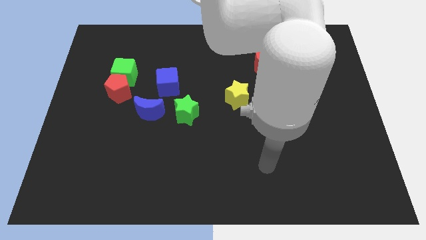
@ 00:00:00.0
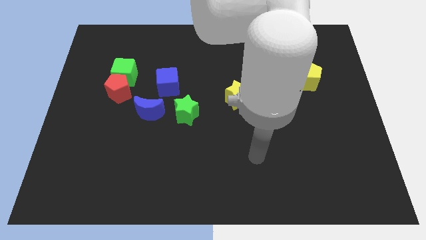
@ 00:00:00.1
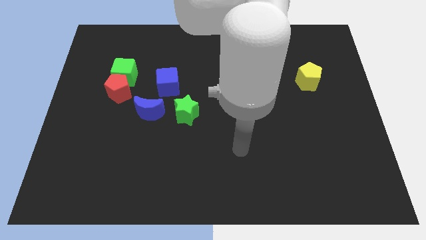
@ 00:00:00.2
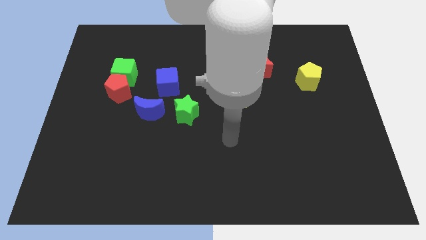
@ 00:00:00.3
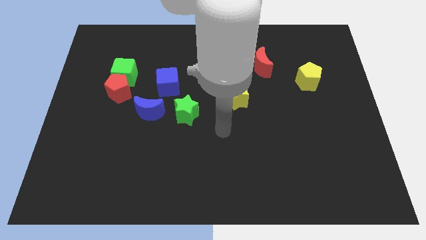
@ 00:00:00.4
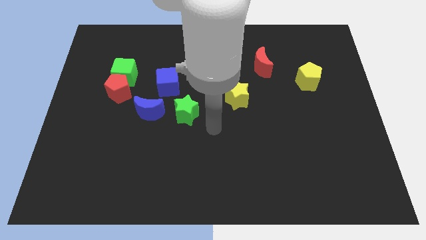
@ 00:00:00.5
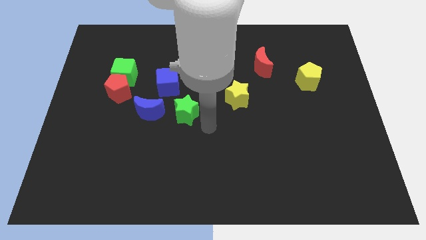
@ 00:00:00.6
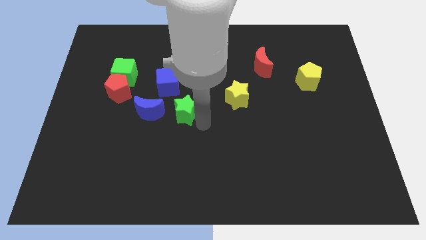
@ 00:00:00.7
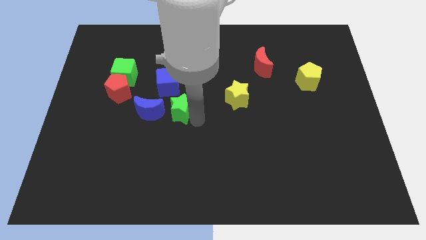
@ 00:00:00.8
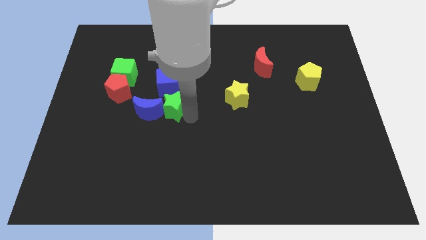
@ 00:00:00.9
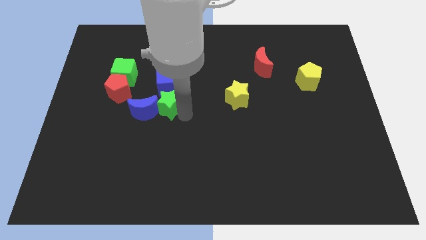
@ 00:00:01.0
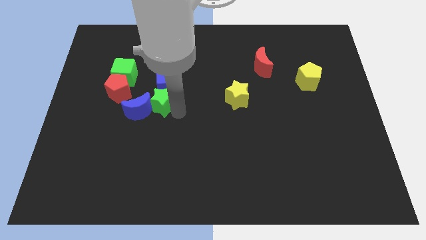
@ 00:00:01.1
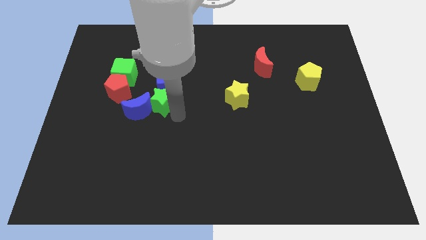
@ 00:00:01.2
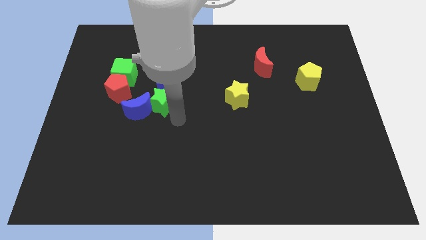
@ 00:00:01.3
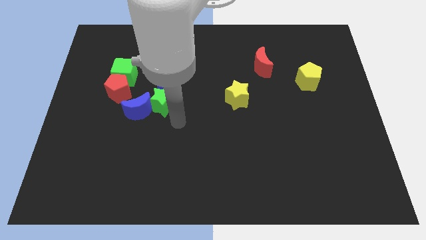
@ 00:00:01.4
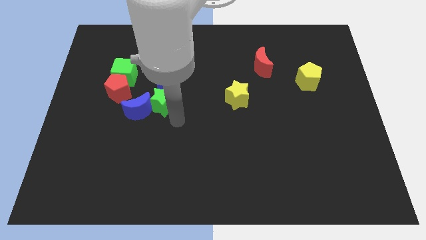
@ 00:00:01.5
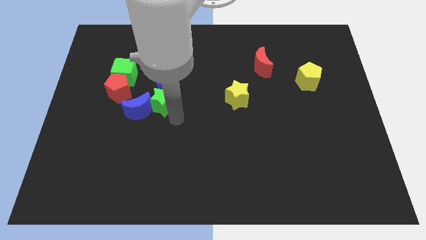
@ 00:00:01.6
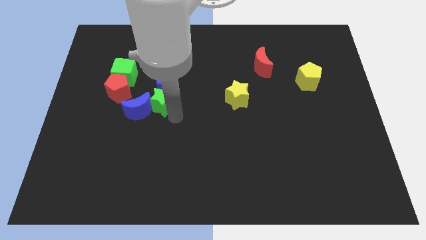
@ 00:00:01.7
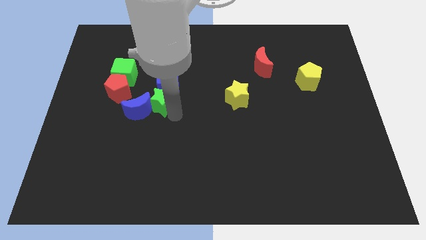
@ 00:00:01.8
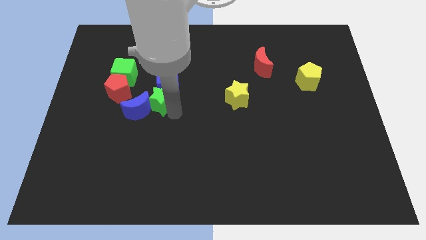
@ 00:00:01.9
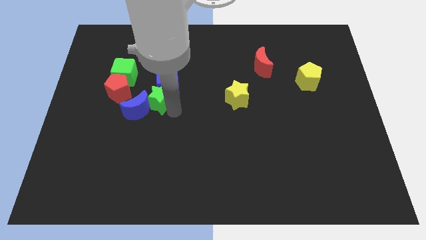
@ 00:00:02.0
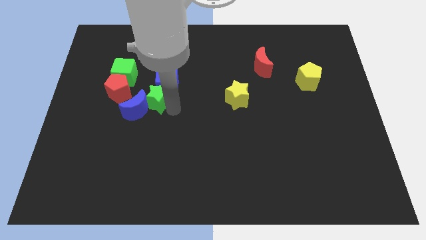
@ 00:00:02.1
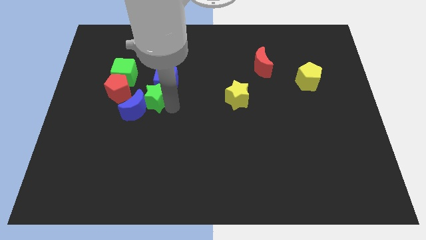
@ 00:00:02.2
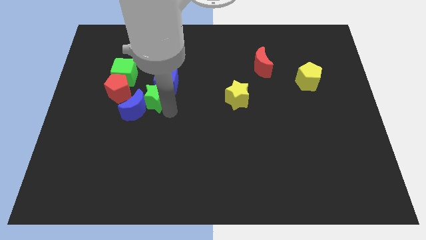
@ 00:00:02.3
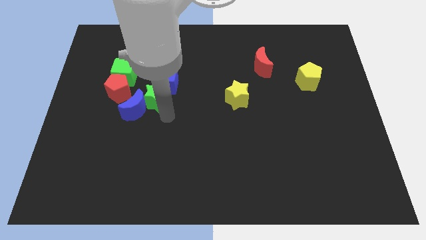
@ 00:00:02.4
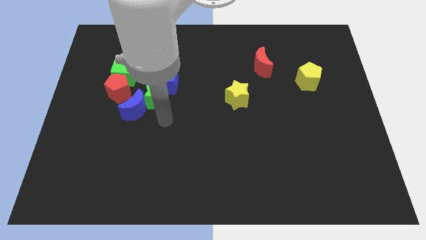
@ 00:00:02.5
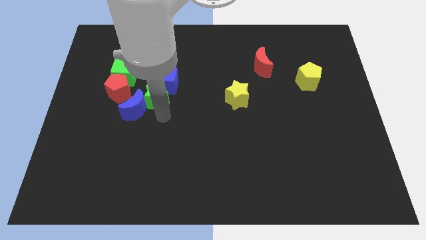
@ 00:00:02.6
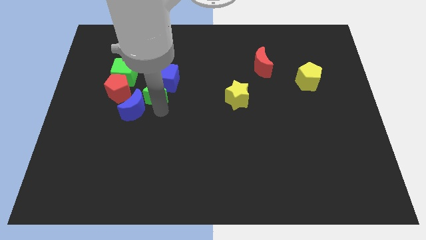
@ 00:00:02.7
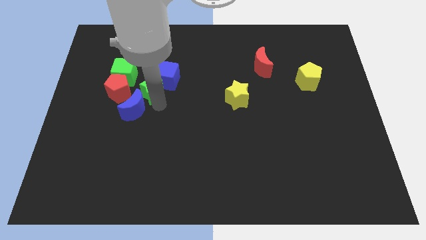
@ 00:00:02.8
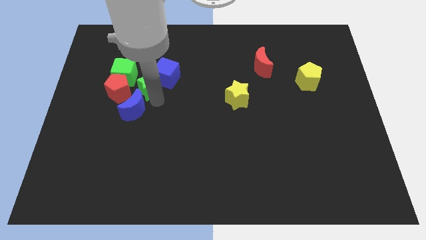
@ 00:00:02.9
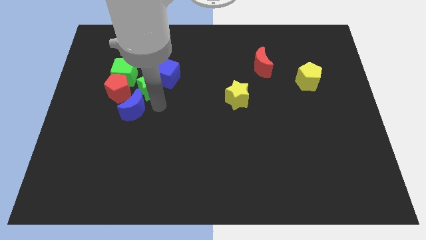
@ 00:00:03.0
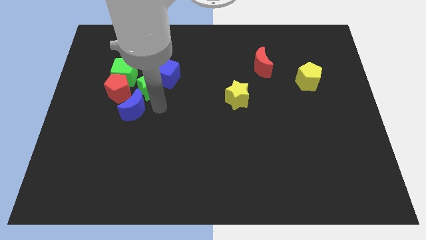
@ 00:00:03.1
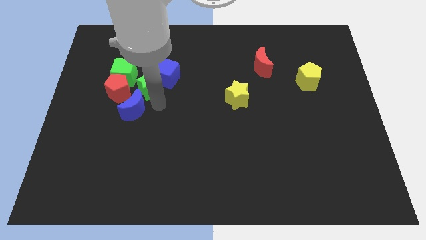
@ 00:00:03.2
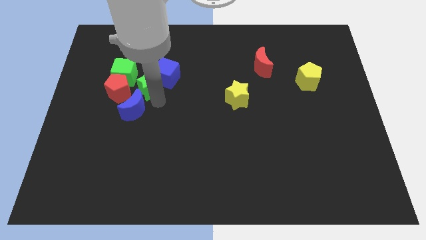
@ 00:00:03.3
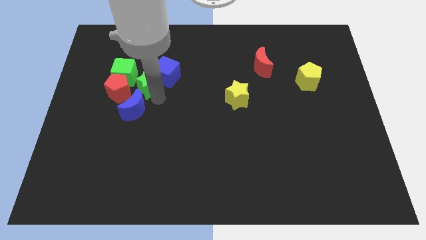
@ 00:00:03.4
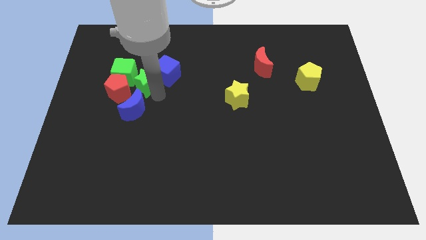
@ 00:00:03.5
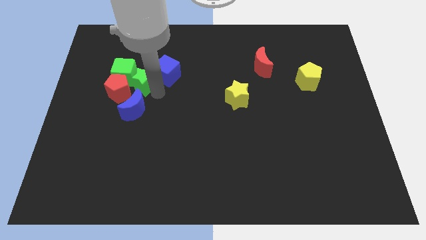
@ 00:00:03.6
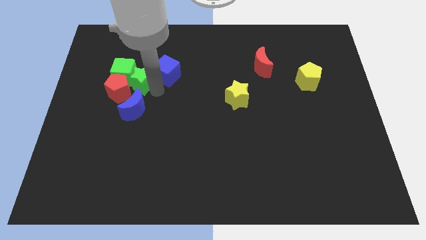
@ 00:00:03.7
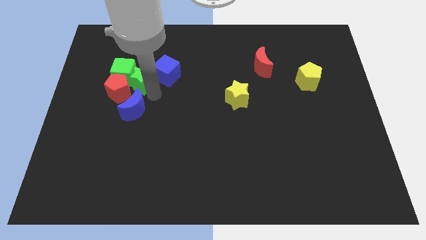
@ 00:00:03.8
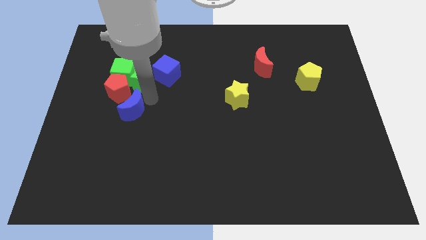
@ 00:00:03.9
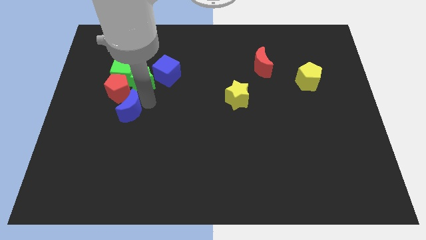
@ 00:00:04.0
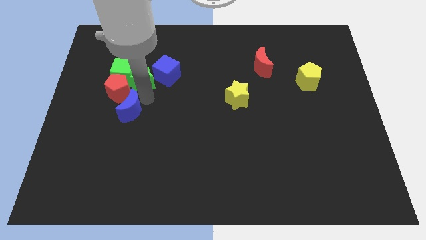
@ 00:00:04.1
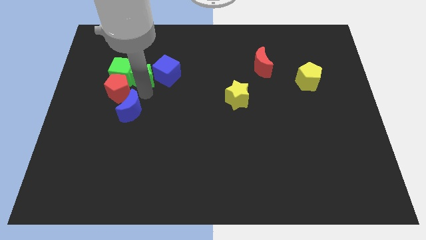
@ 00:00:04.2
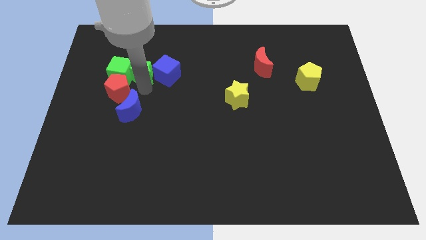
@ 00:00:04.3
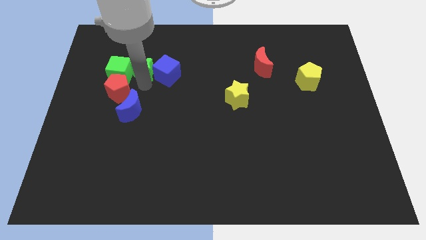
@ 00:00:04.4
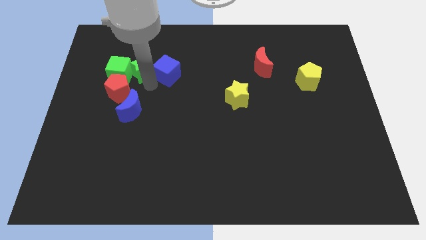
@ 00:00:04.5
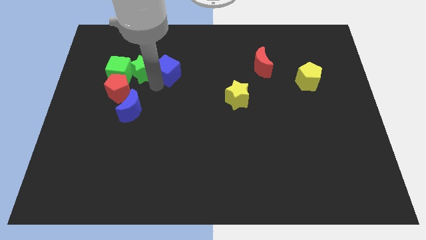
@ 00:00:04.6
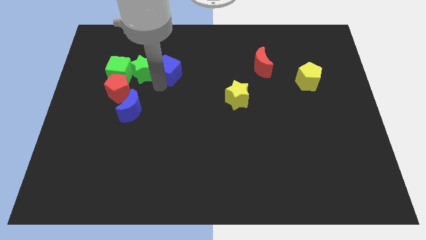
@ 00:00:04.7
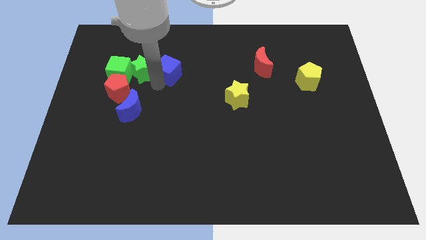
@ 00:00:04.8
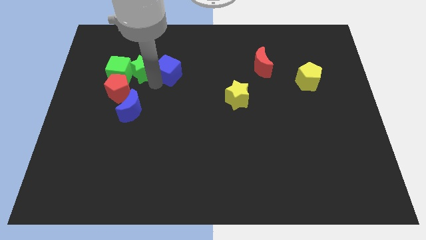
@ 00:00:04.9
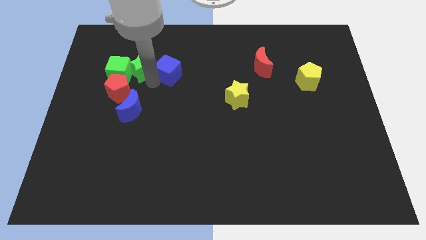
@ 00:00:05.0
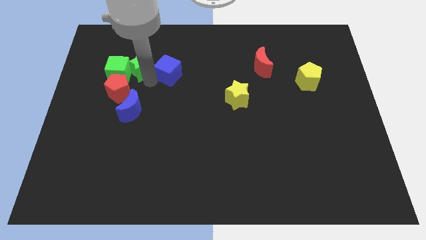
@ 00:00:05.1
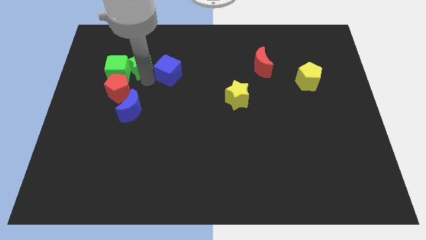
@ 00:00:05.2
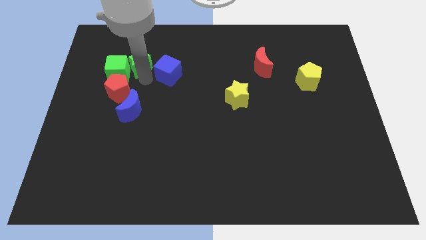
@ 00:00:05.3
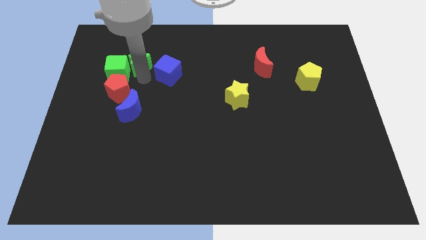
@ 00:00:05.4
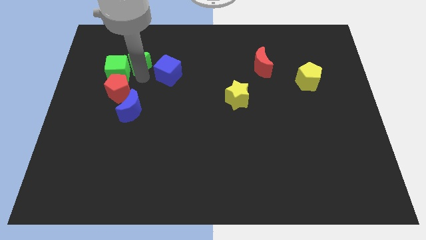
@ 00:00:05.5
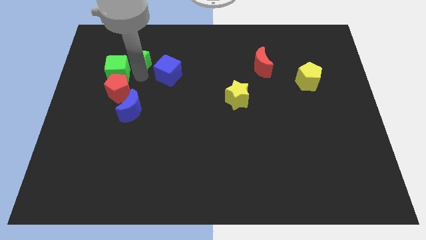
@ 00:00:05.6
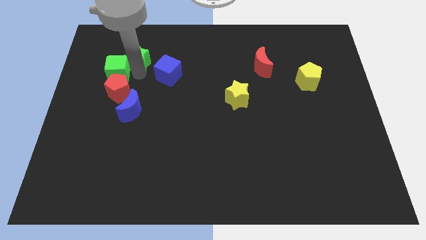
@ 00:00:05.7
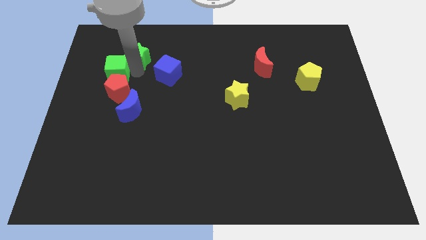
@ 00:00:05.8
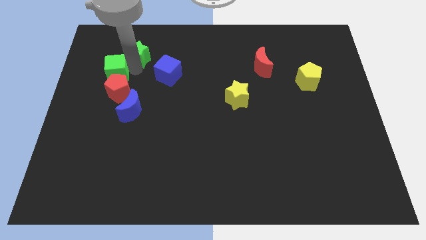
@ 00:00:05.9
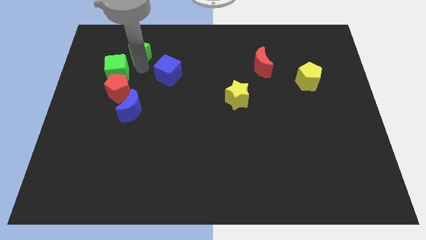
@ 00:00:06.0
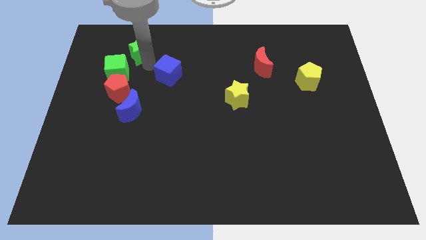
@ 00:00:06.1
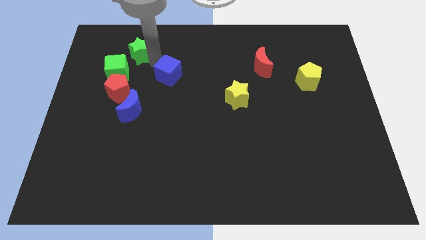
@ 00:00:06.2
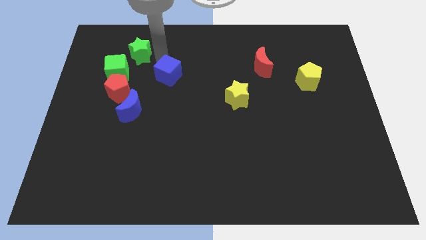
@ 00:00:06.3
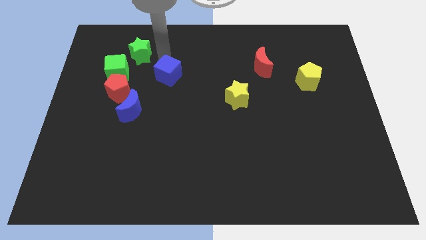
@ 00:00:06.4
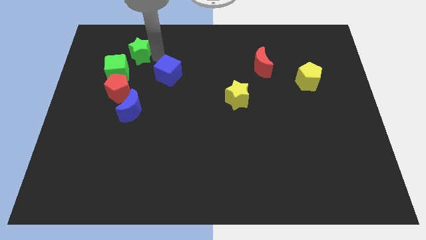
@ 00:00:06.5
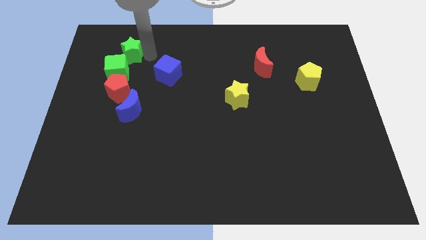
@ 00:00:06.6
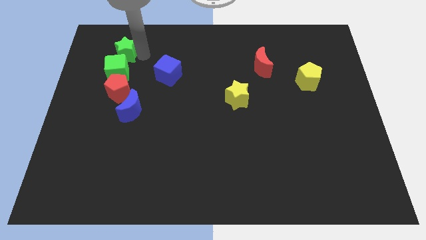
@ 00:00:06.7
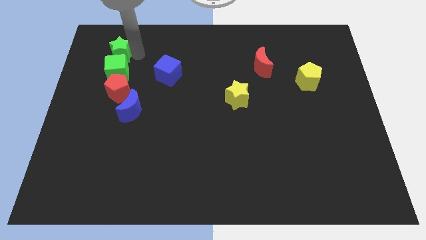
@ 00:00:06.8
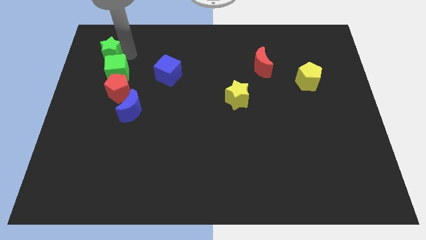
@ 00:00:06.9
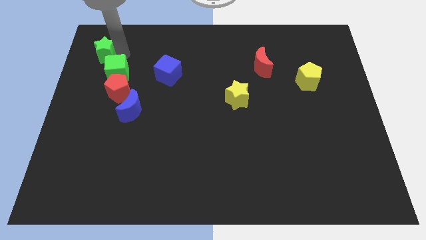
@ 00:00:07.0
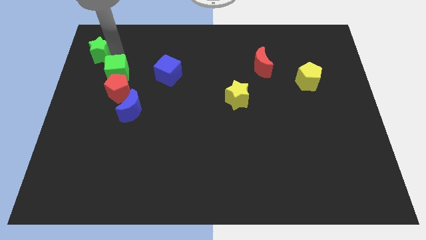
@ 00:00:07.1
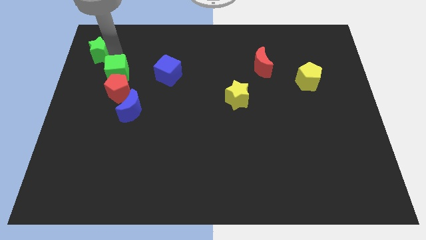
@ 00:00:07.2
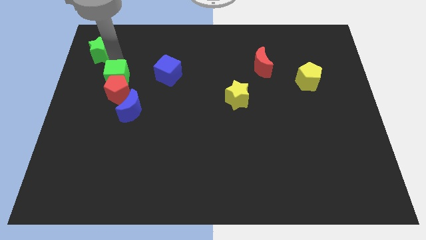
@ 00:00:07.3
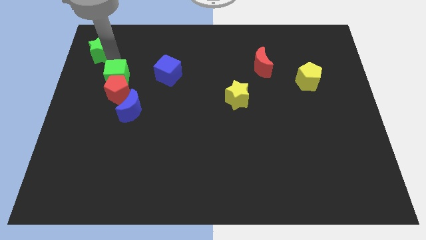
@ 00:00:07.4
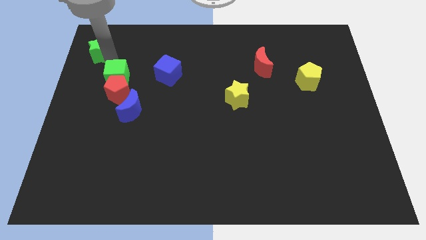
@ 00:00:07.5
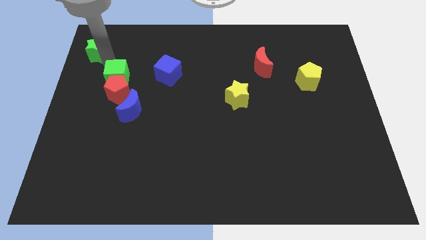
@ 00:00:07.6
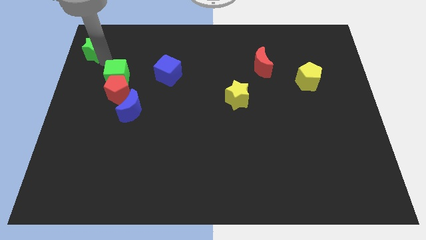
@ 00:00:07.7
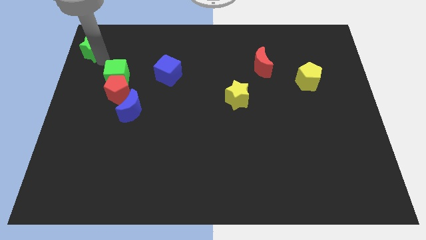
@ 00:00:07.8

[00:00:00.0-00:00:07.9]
slide the green star to the upper left corner
